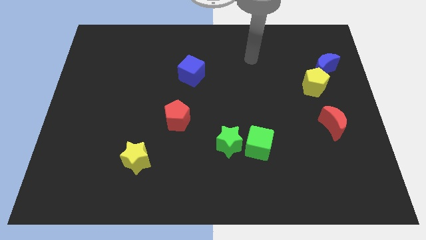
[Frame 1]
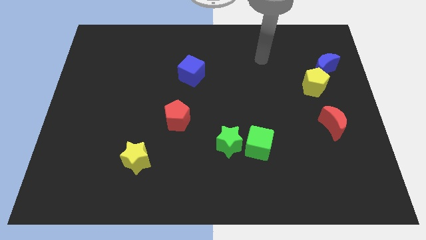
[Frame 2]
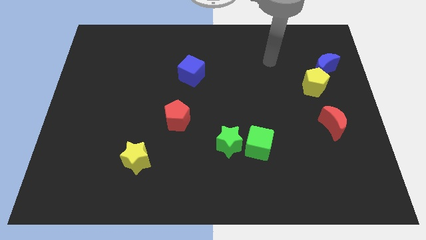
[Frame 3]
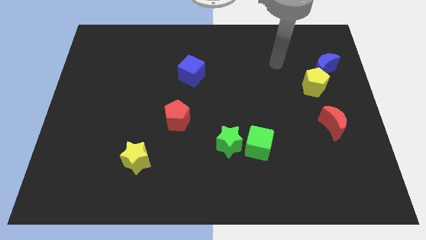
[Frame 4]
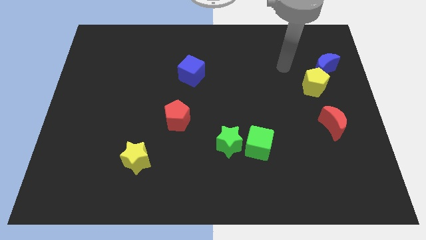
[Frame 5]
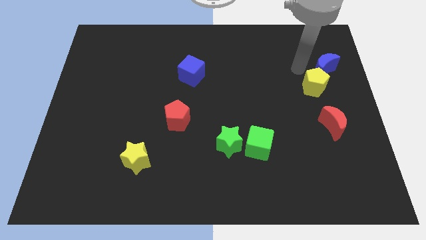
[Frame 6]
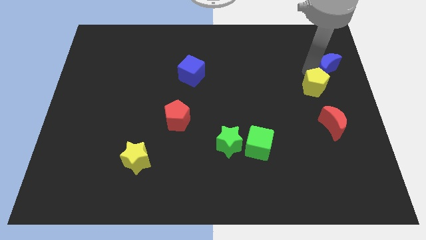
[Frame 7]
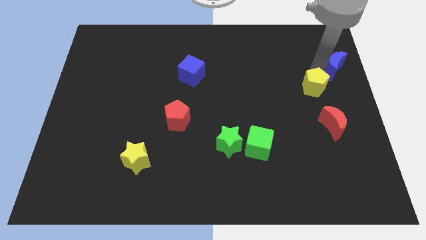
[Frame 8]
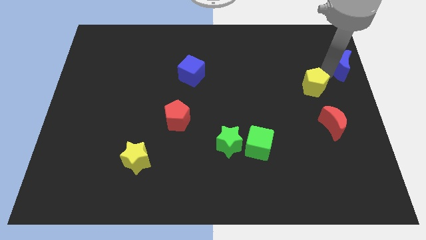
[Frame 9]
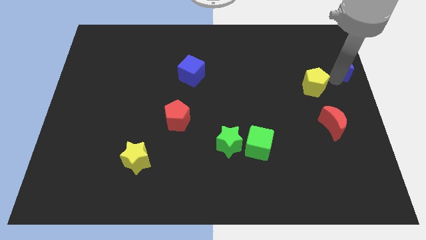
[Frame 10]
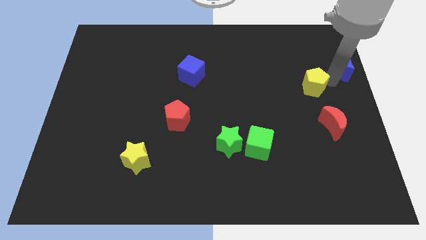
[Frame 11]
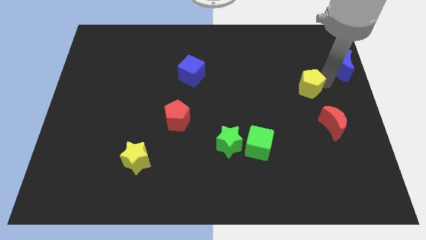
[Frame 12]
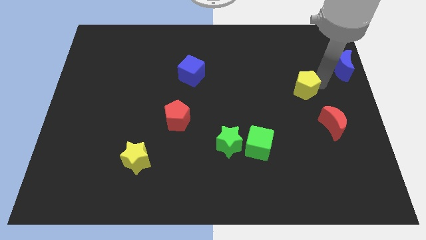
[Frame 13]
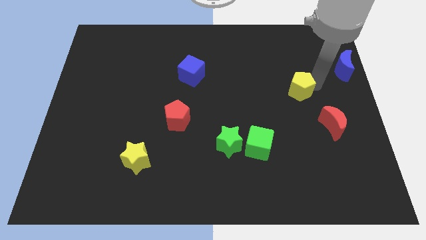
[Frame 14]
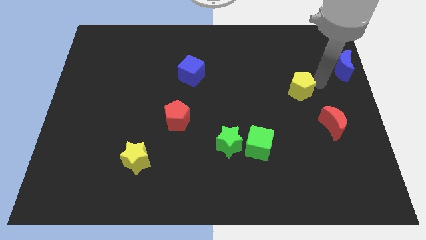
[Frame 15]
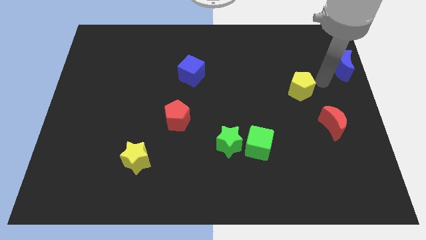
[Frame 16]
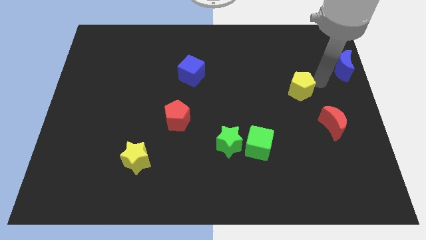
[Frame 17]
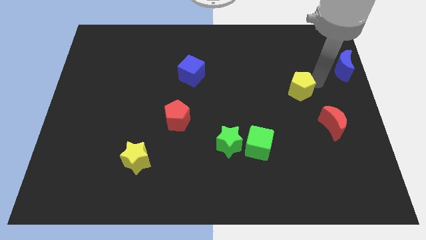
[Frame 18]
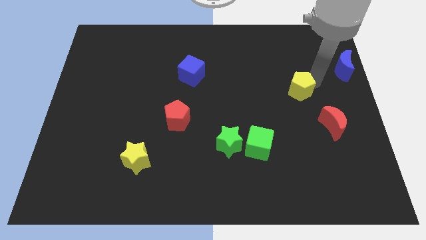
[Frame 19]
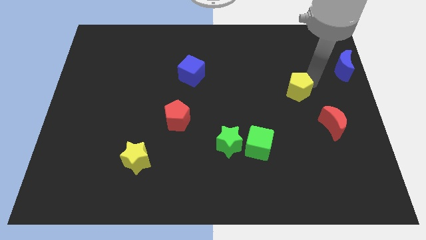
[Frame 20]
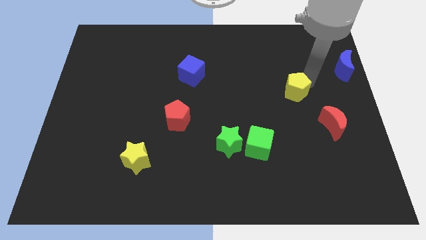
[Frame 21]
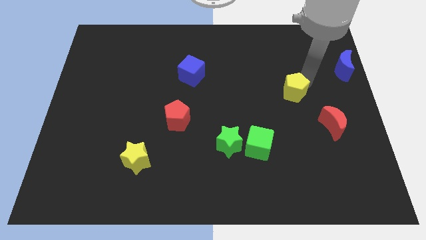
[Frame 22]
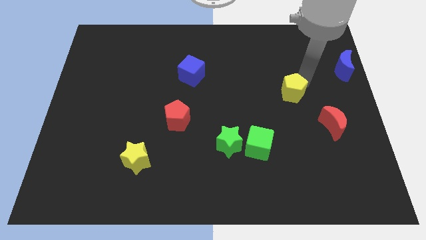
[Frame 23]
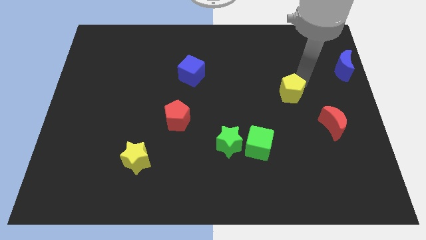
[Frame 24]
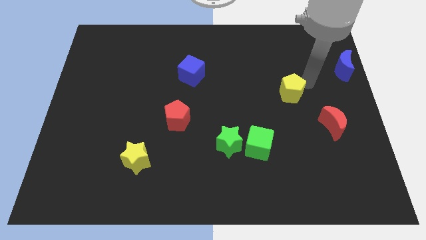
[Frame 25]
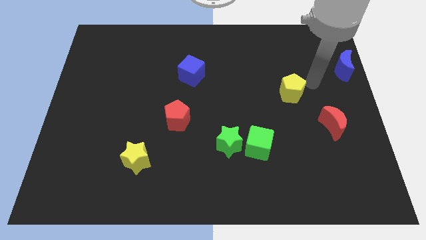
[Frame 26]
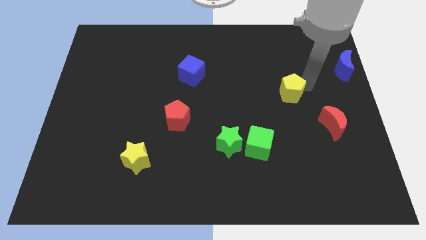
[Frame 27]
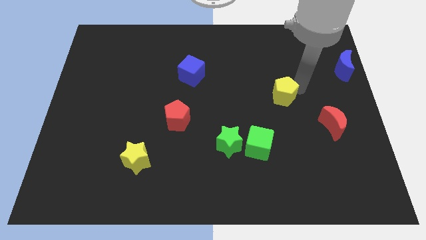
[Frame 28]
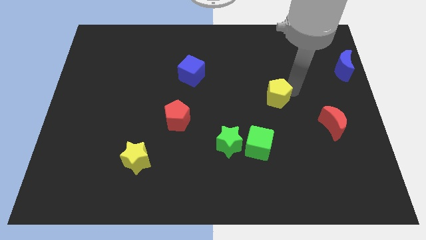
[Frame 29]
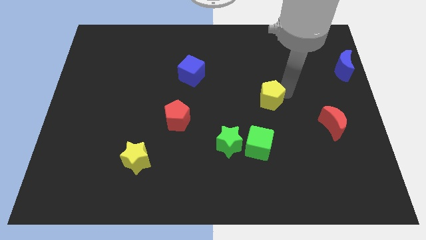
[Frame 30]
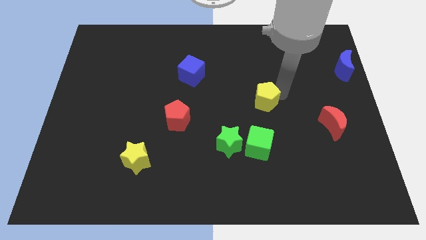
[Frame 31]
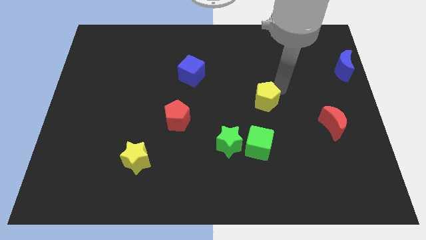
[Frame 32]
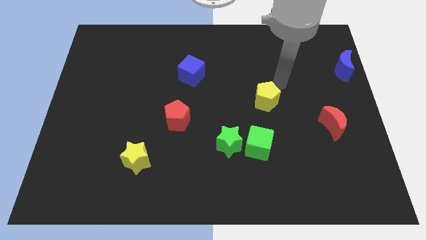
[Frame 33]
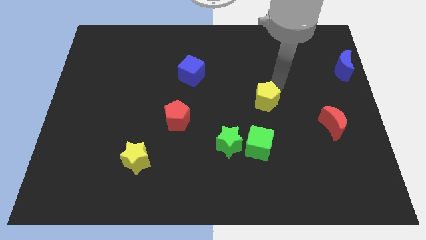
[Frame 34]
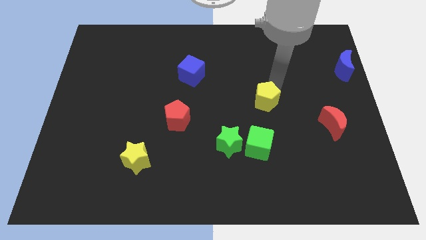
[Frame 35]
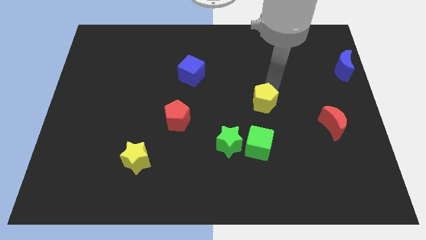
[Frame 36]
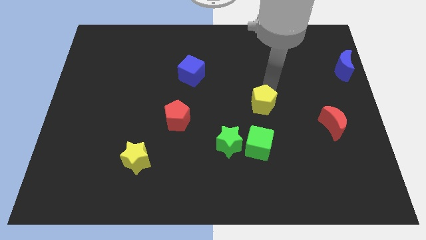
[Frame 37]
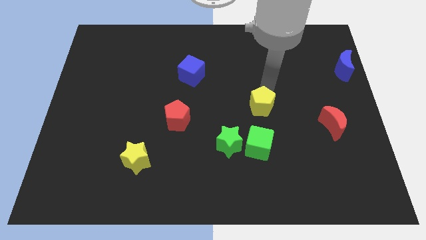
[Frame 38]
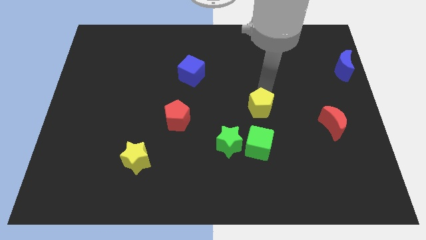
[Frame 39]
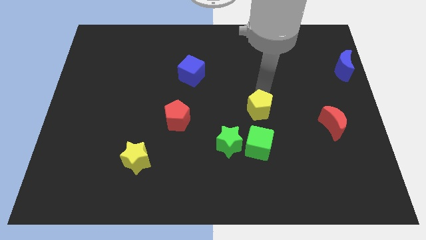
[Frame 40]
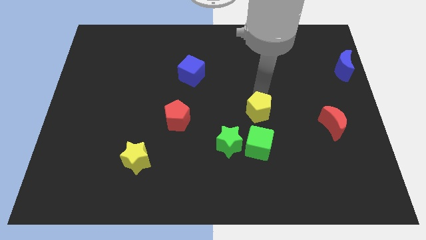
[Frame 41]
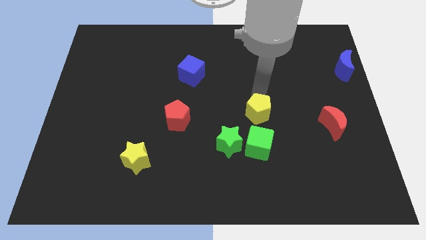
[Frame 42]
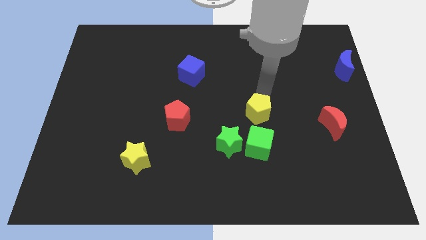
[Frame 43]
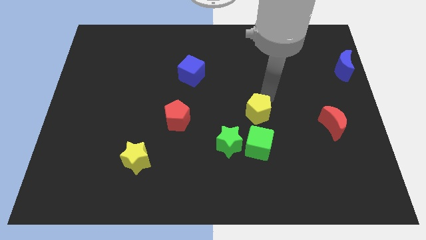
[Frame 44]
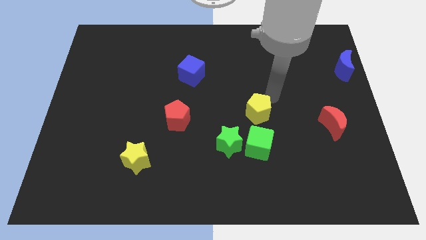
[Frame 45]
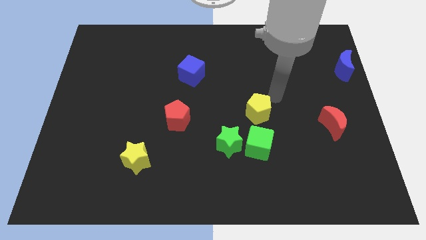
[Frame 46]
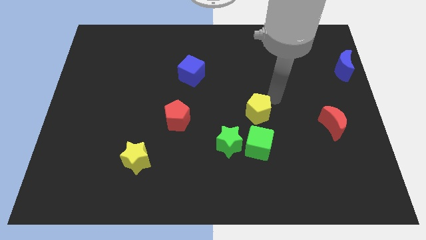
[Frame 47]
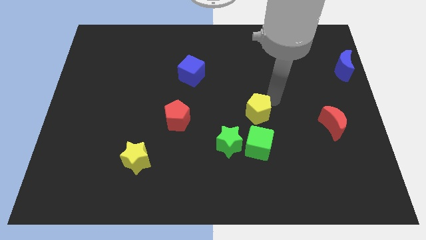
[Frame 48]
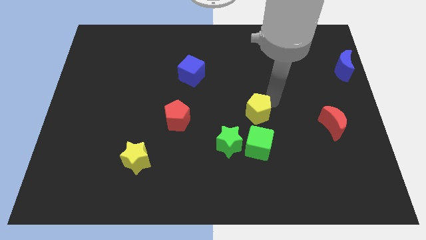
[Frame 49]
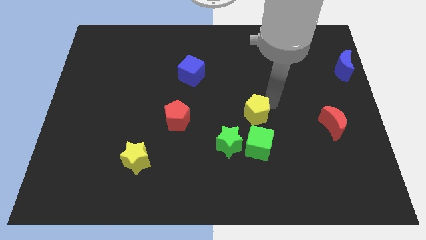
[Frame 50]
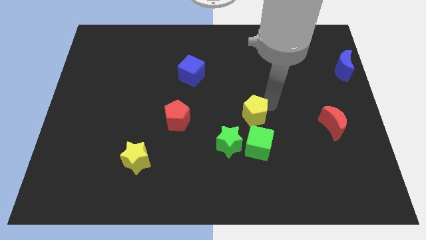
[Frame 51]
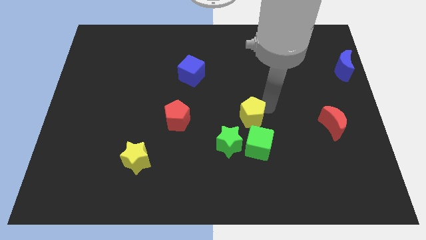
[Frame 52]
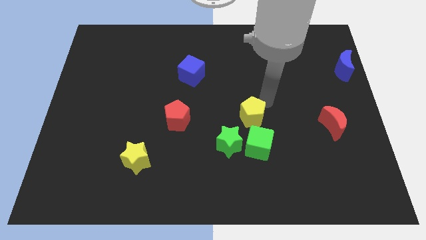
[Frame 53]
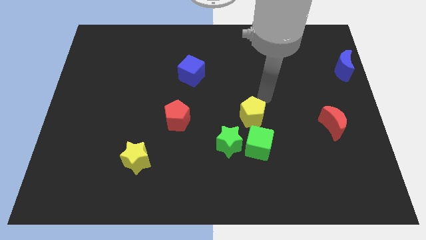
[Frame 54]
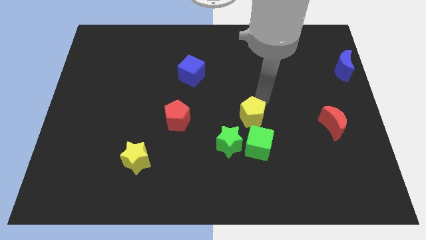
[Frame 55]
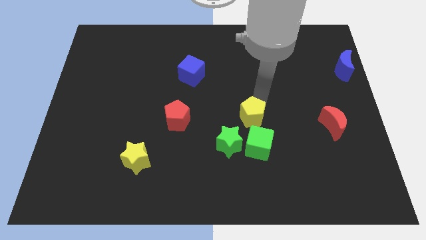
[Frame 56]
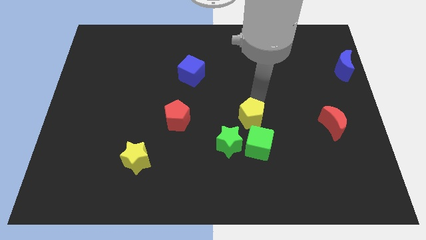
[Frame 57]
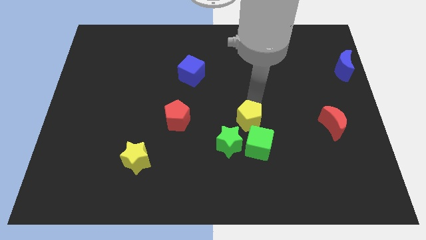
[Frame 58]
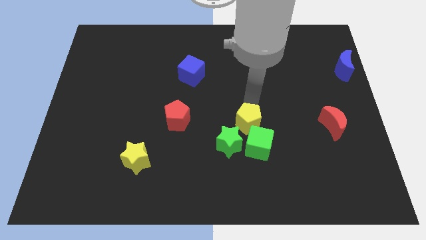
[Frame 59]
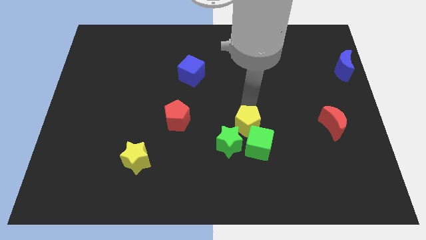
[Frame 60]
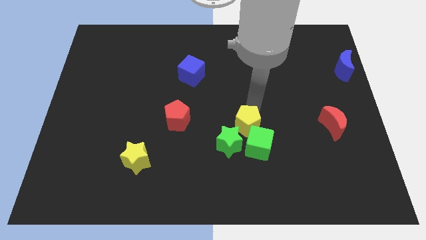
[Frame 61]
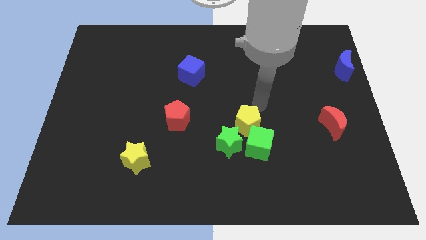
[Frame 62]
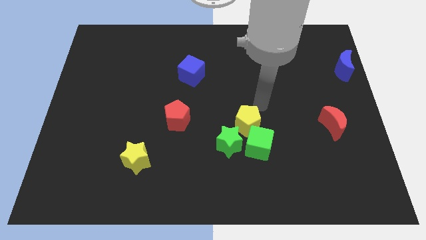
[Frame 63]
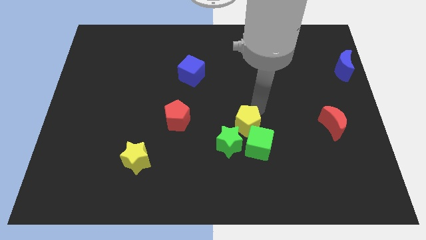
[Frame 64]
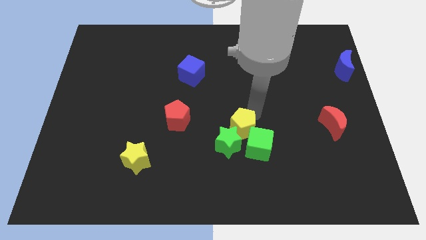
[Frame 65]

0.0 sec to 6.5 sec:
move the yellow pentagon towards the green star

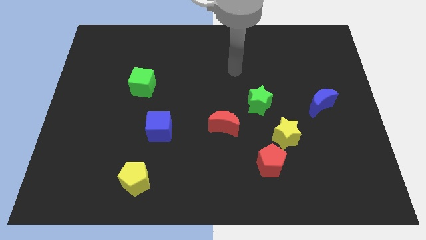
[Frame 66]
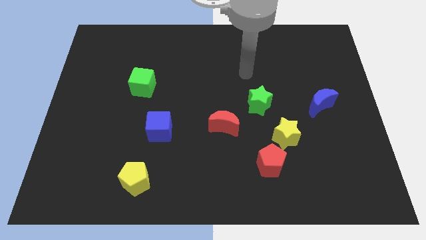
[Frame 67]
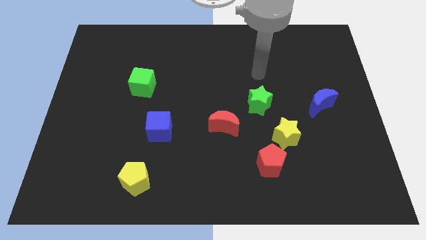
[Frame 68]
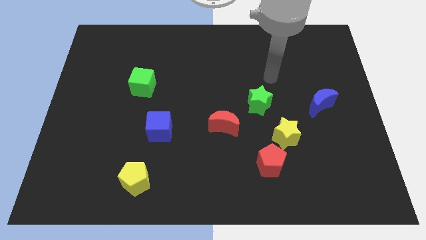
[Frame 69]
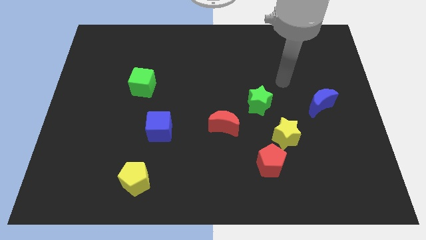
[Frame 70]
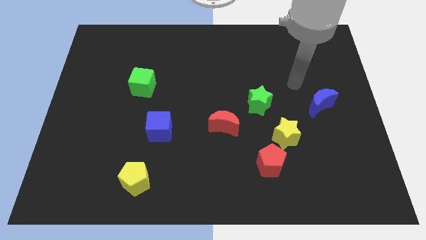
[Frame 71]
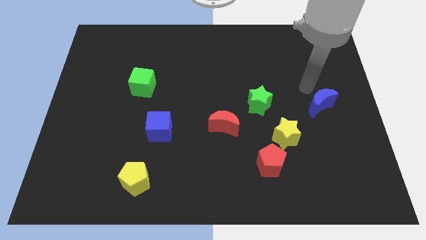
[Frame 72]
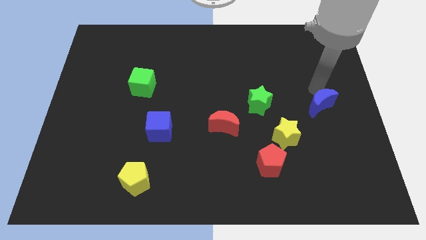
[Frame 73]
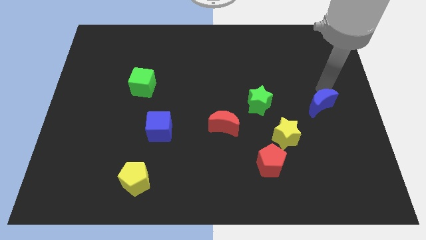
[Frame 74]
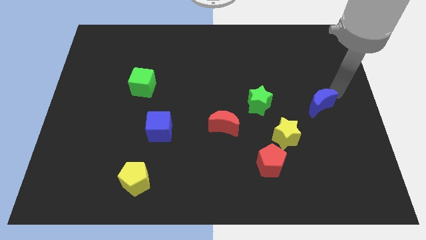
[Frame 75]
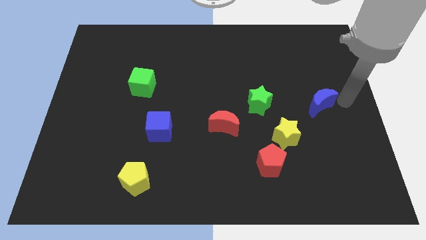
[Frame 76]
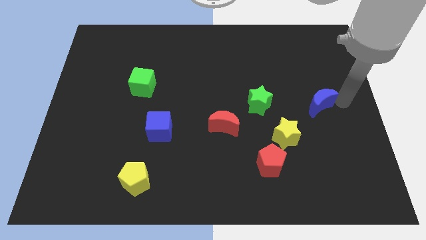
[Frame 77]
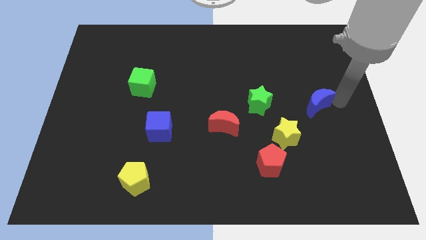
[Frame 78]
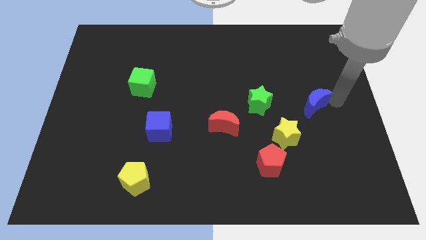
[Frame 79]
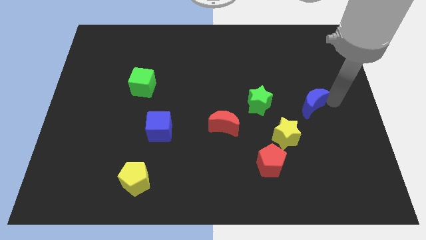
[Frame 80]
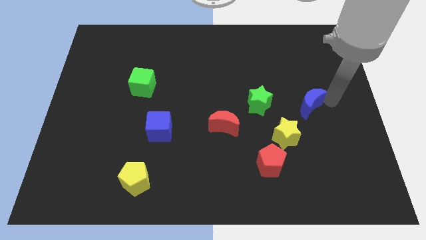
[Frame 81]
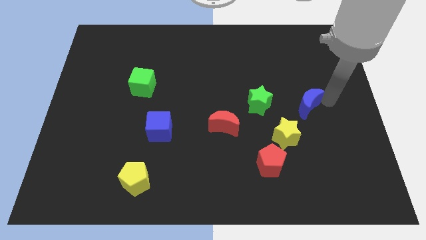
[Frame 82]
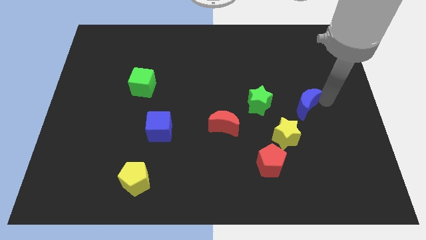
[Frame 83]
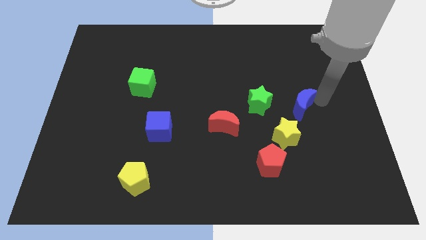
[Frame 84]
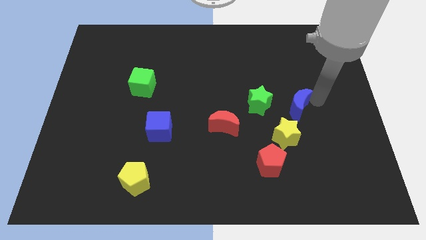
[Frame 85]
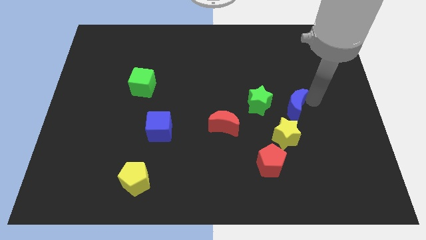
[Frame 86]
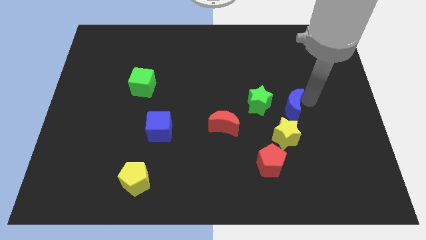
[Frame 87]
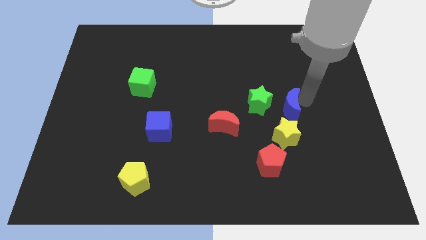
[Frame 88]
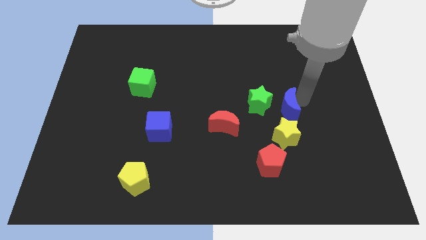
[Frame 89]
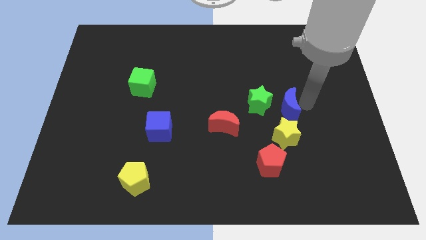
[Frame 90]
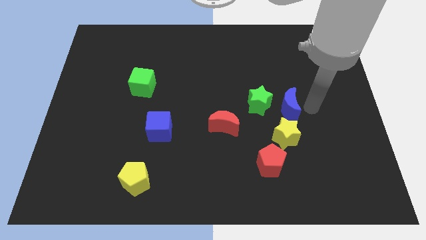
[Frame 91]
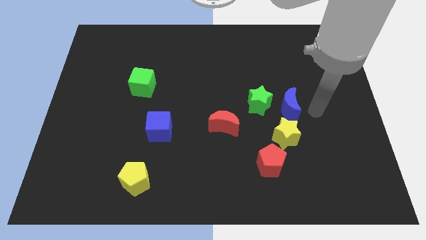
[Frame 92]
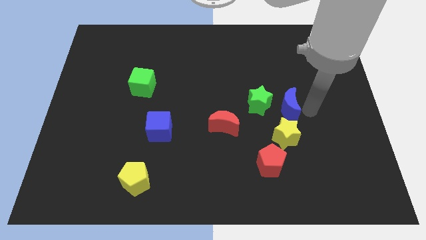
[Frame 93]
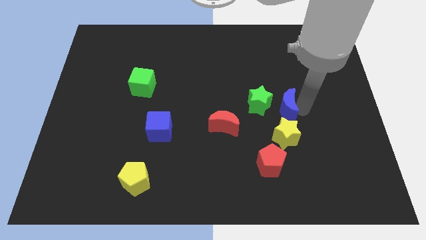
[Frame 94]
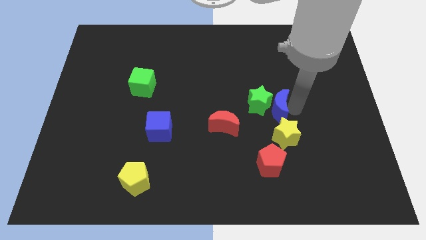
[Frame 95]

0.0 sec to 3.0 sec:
push the blue moon to the green star
